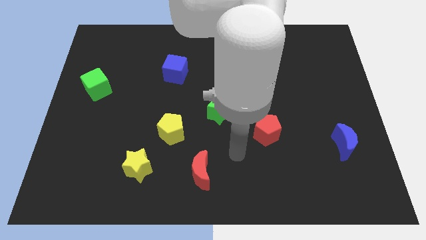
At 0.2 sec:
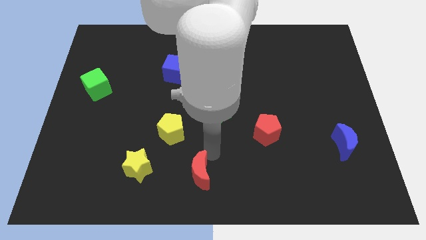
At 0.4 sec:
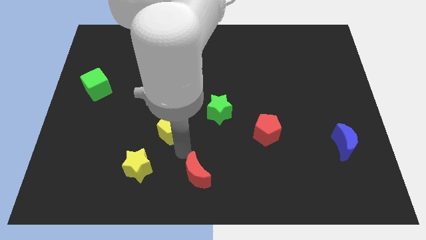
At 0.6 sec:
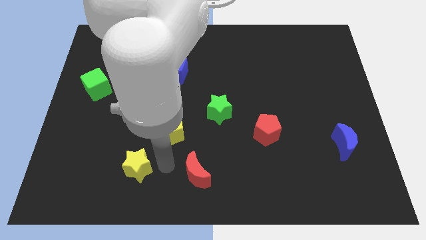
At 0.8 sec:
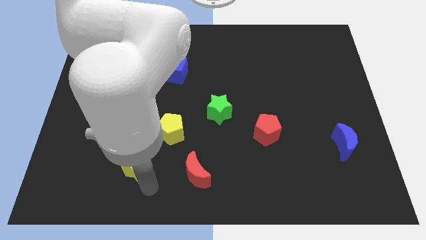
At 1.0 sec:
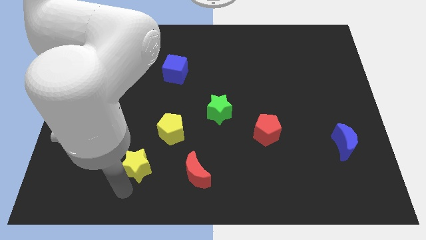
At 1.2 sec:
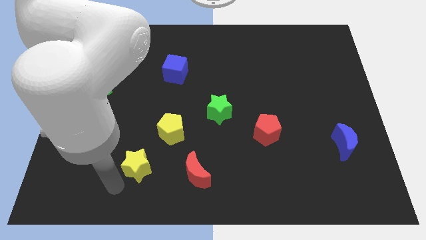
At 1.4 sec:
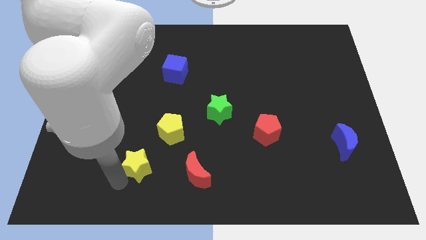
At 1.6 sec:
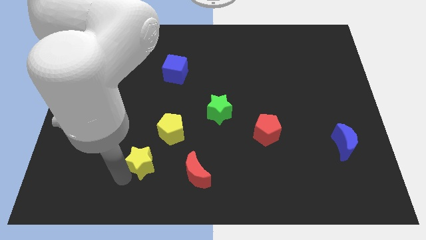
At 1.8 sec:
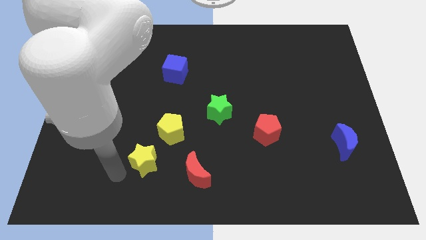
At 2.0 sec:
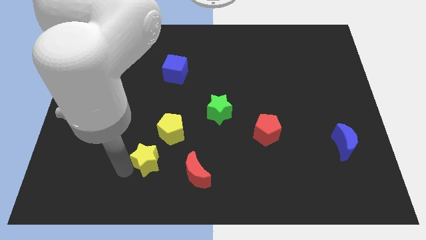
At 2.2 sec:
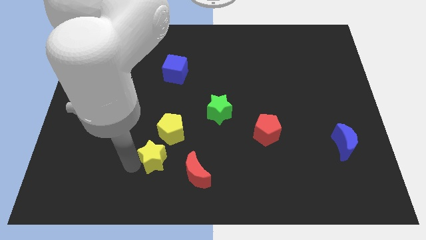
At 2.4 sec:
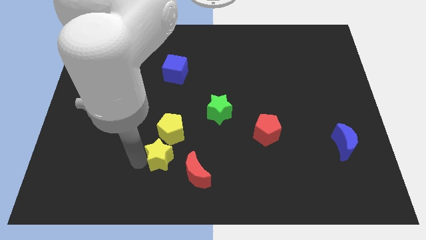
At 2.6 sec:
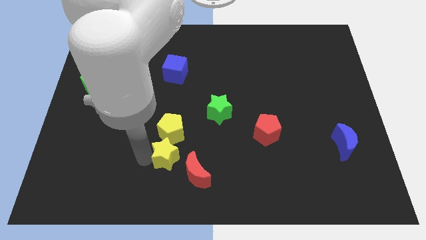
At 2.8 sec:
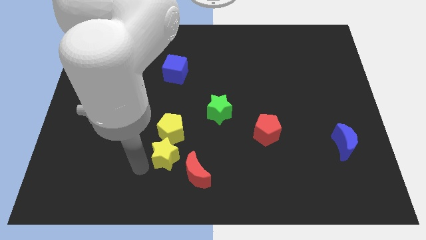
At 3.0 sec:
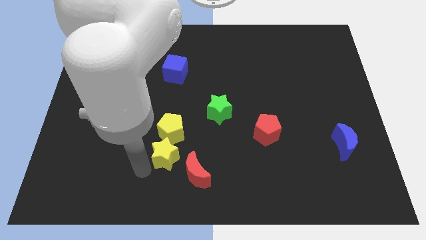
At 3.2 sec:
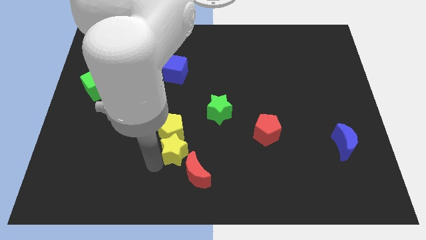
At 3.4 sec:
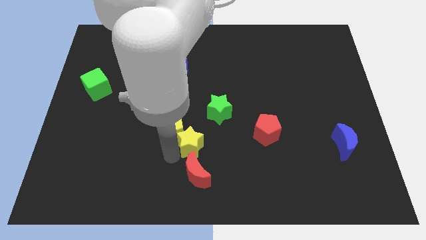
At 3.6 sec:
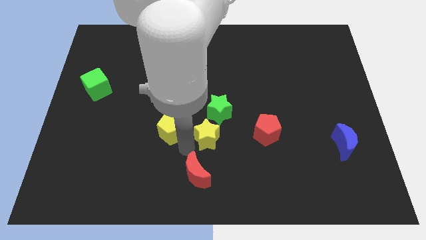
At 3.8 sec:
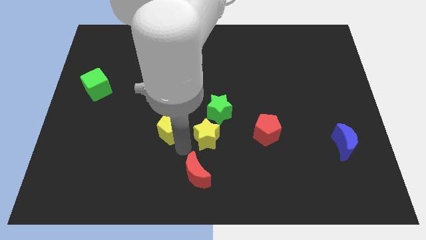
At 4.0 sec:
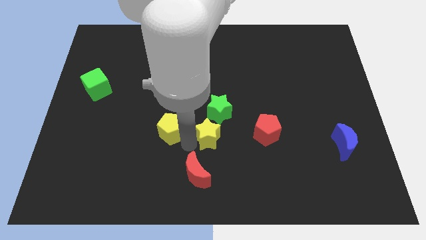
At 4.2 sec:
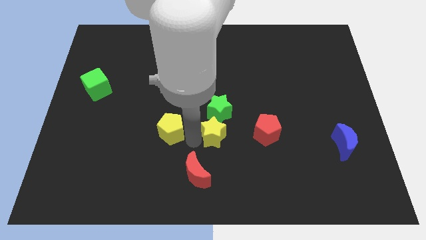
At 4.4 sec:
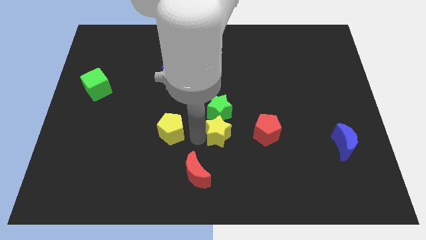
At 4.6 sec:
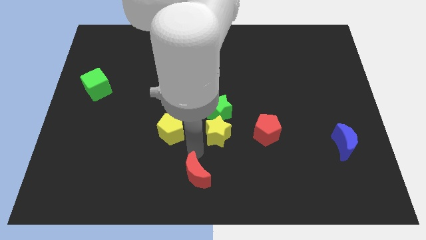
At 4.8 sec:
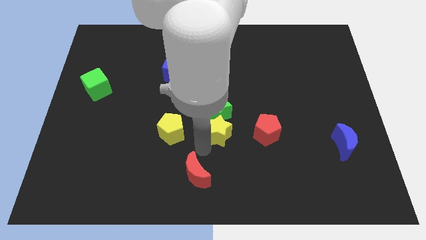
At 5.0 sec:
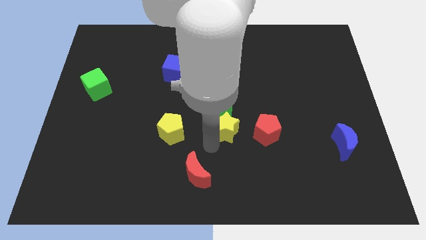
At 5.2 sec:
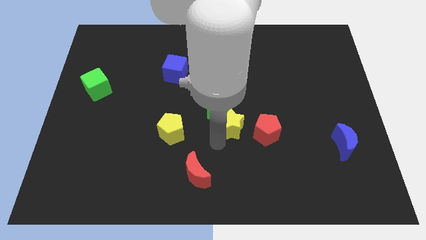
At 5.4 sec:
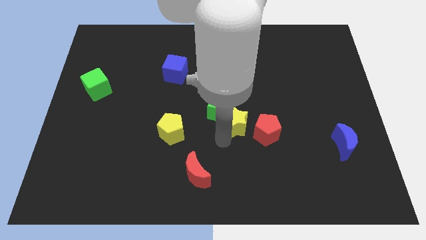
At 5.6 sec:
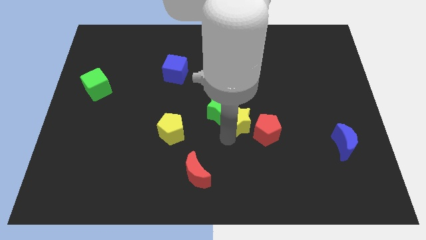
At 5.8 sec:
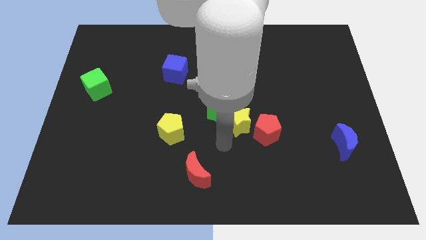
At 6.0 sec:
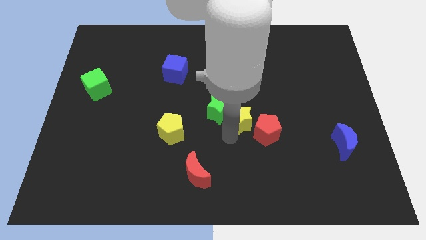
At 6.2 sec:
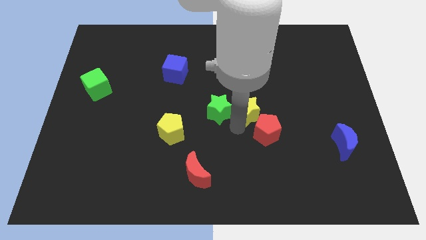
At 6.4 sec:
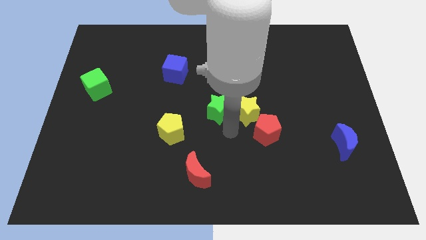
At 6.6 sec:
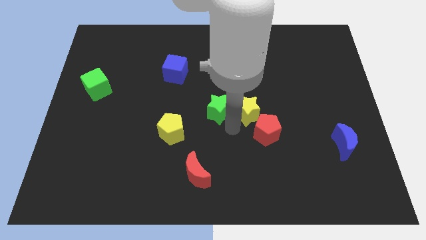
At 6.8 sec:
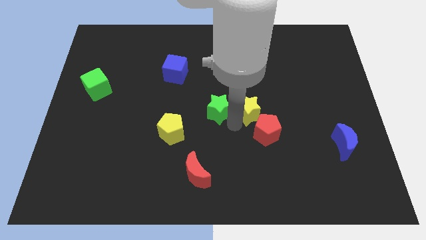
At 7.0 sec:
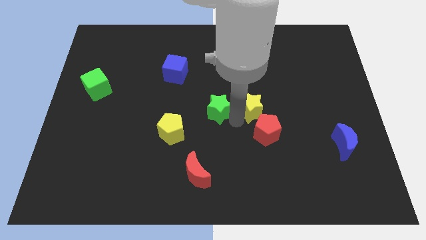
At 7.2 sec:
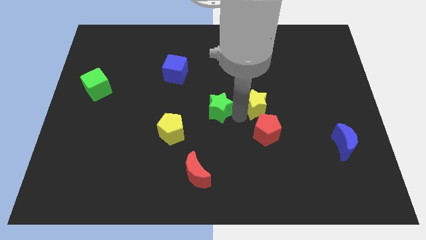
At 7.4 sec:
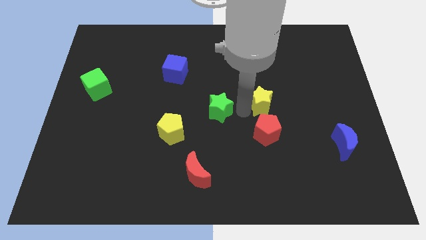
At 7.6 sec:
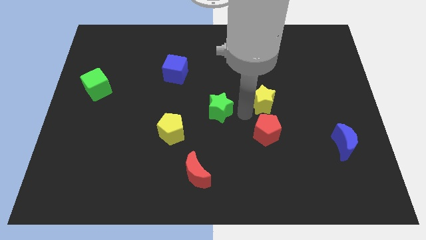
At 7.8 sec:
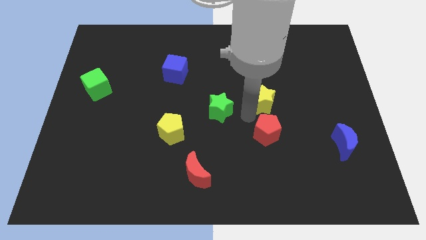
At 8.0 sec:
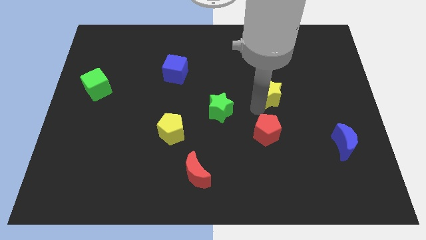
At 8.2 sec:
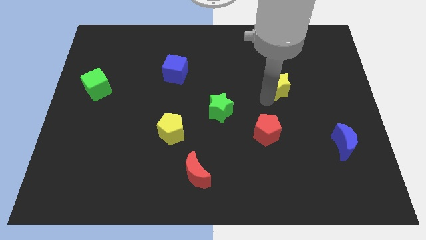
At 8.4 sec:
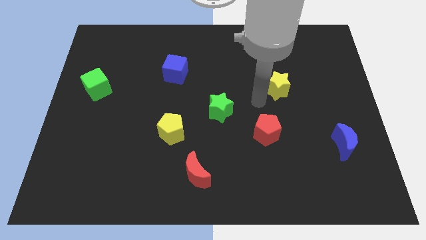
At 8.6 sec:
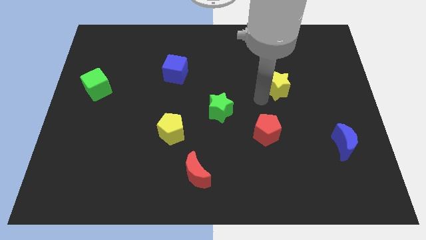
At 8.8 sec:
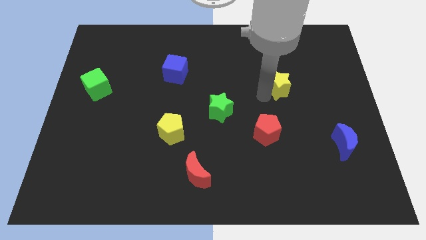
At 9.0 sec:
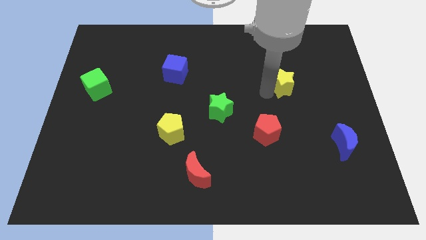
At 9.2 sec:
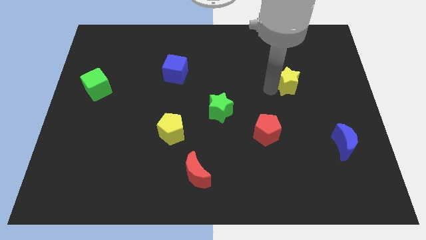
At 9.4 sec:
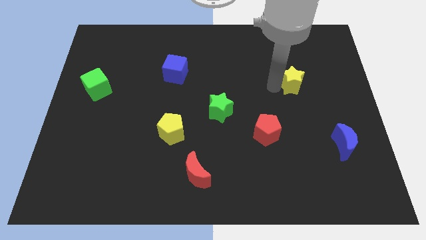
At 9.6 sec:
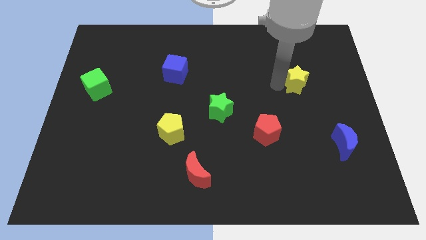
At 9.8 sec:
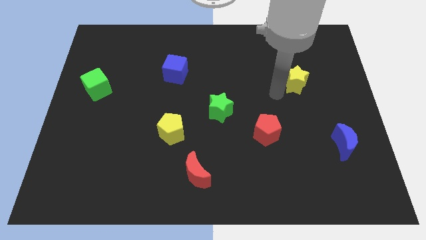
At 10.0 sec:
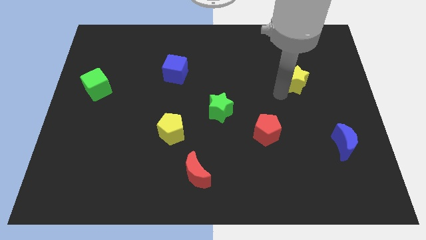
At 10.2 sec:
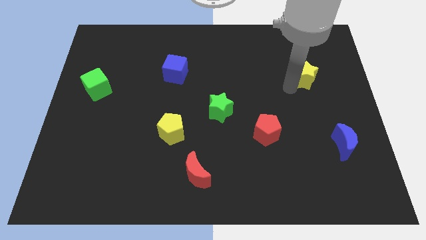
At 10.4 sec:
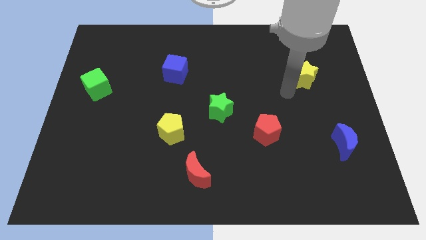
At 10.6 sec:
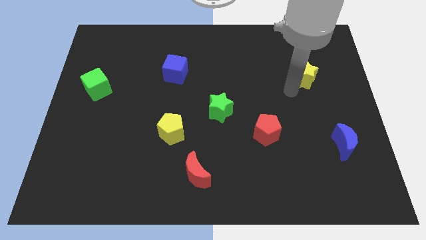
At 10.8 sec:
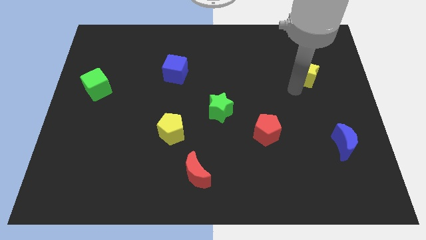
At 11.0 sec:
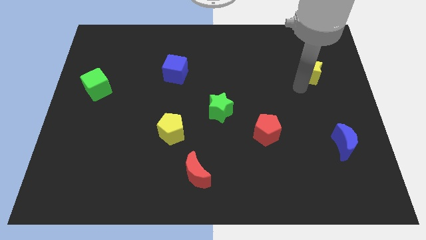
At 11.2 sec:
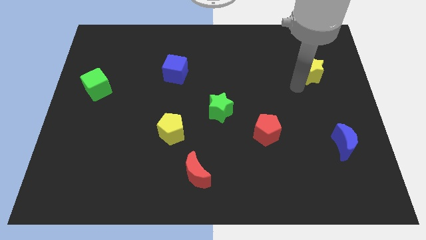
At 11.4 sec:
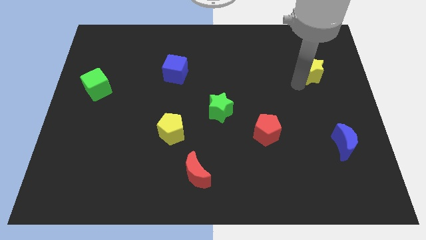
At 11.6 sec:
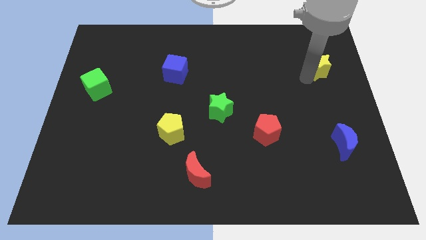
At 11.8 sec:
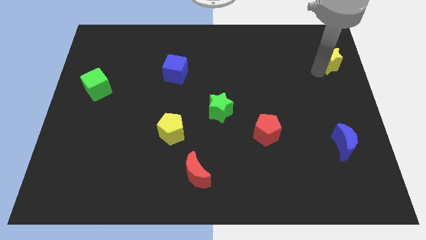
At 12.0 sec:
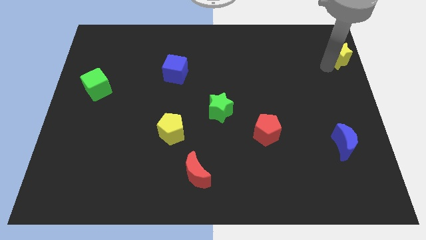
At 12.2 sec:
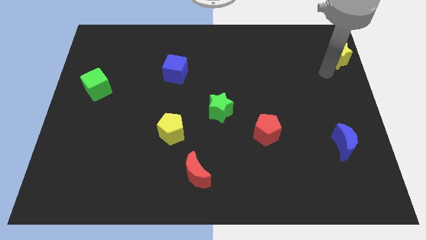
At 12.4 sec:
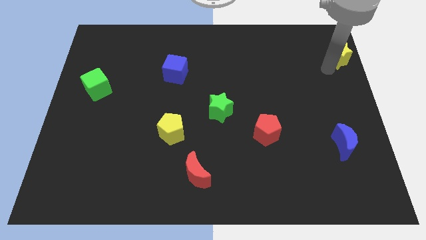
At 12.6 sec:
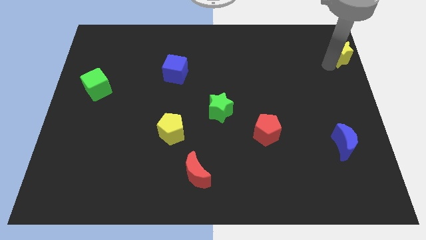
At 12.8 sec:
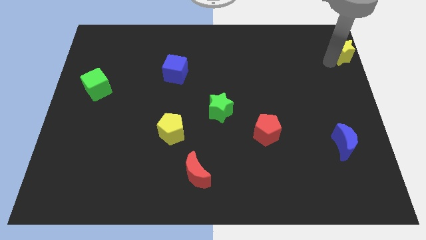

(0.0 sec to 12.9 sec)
put the yellow star to the top right
